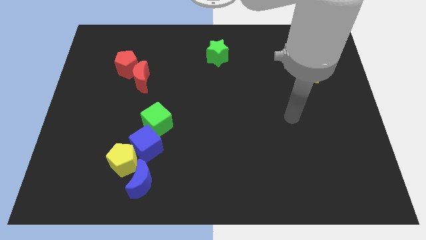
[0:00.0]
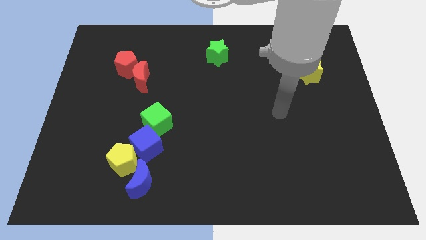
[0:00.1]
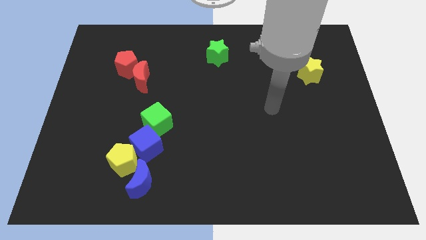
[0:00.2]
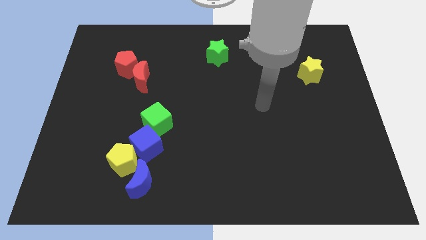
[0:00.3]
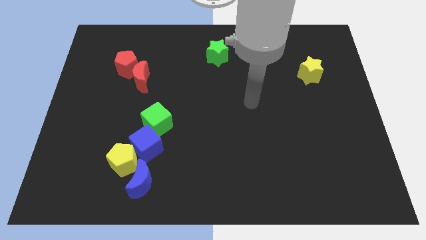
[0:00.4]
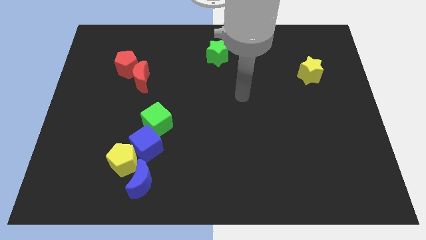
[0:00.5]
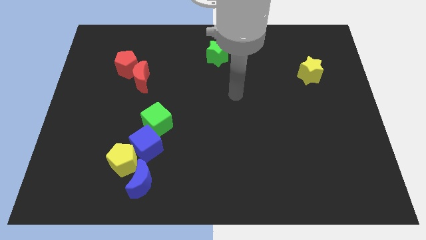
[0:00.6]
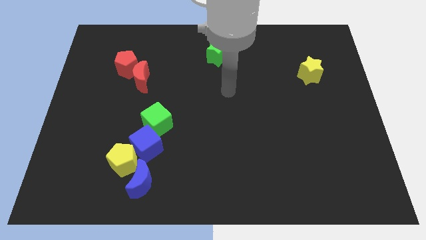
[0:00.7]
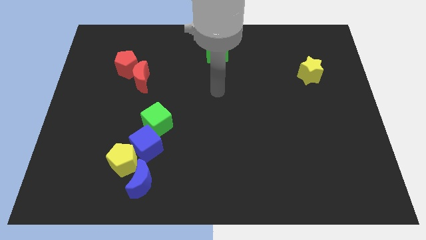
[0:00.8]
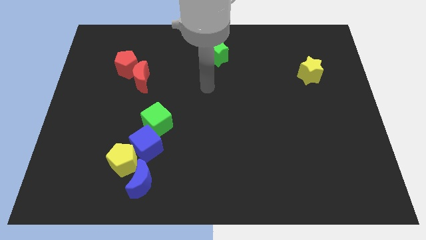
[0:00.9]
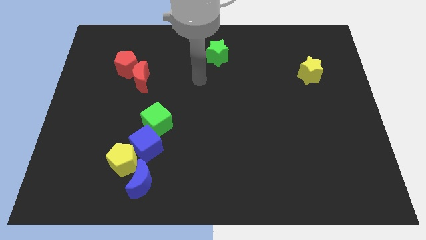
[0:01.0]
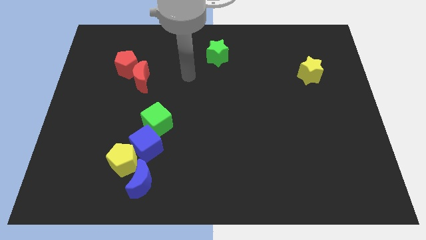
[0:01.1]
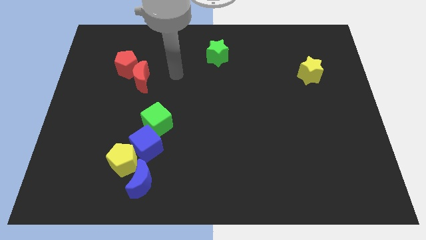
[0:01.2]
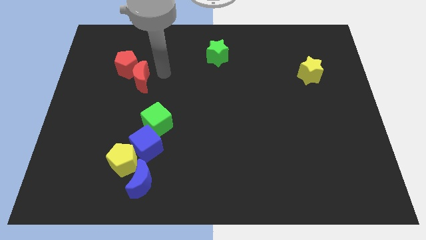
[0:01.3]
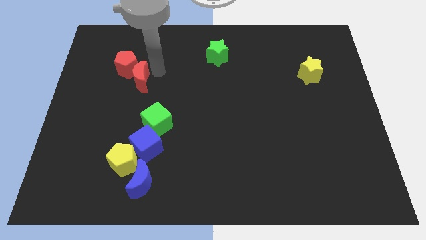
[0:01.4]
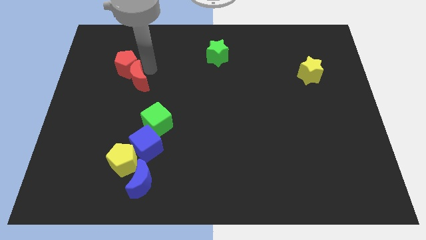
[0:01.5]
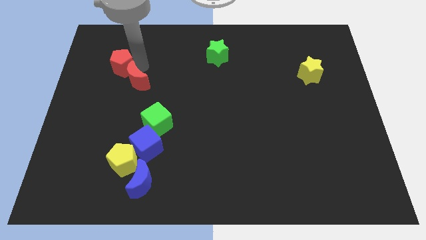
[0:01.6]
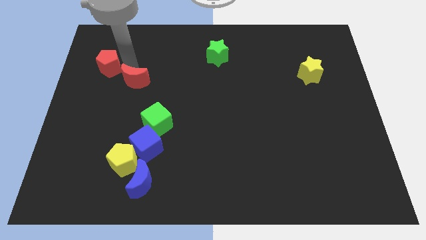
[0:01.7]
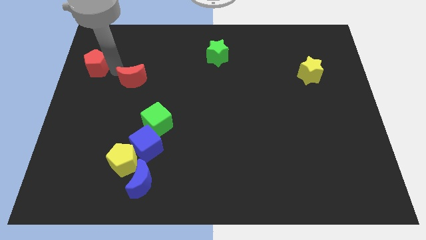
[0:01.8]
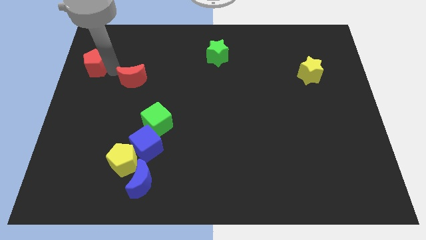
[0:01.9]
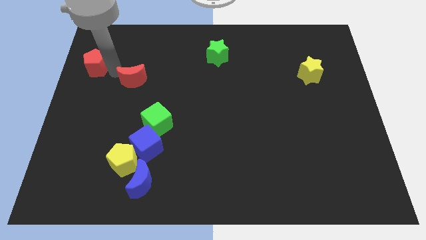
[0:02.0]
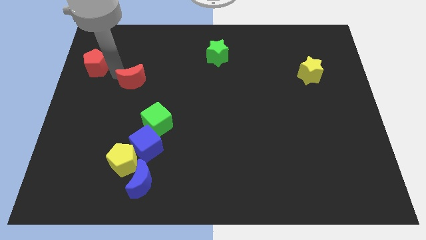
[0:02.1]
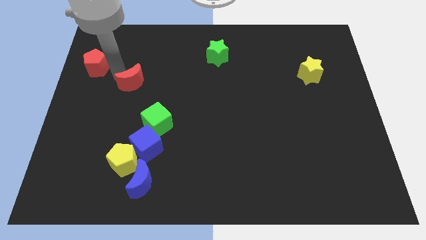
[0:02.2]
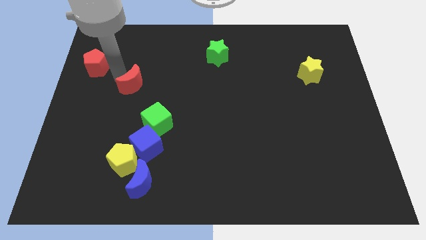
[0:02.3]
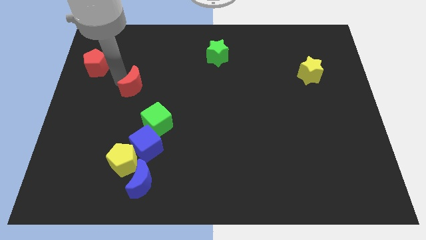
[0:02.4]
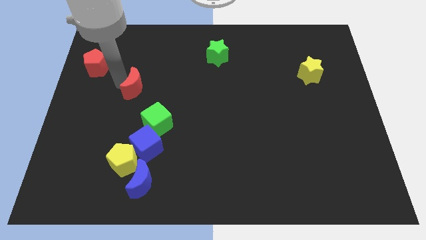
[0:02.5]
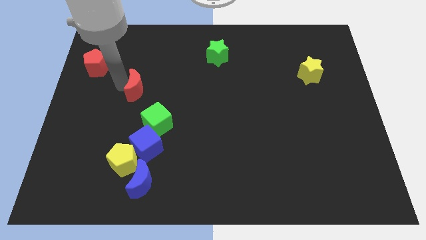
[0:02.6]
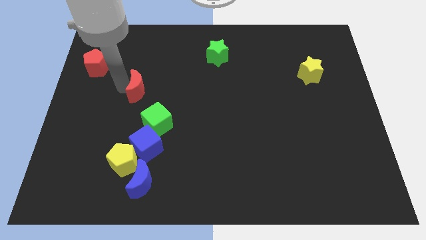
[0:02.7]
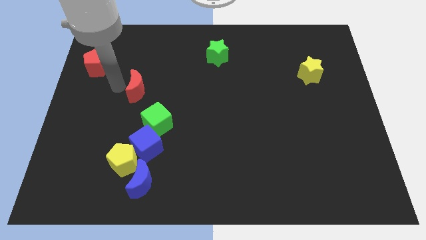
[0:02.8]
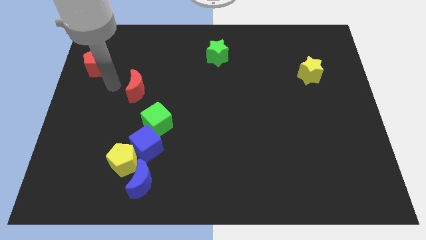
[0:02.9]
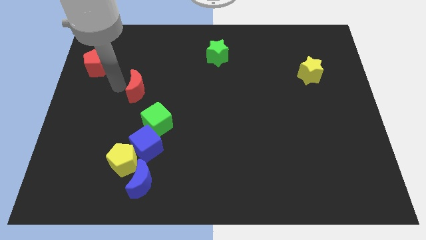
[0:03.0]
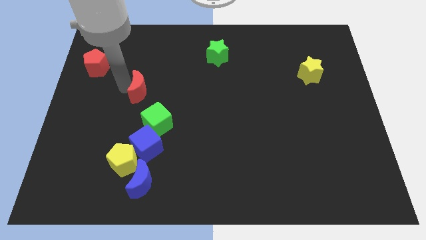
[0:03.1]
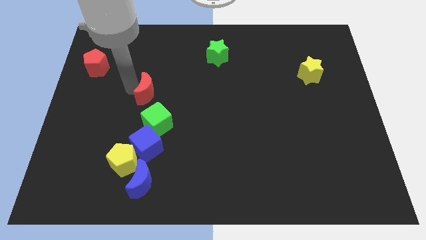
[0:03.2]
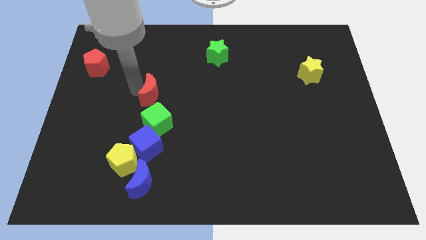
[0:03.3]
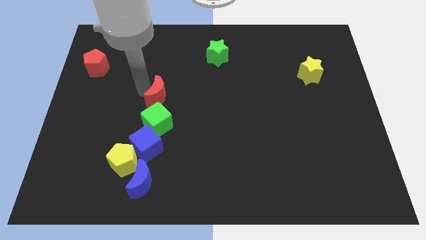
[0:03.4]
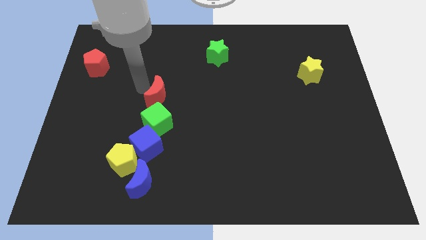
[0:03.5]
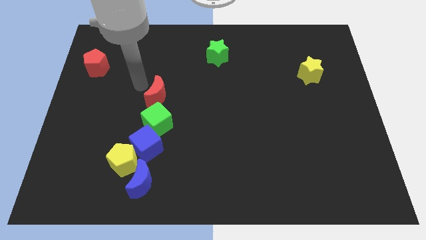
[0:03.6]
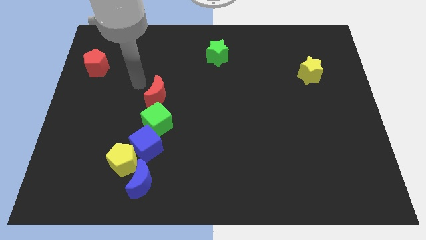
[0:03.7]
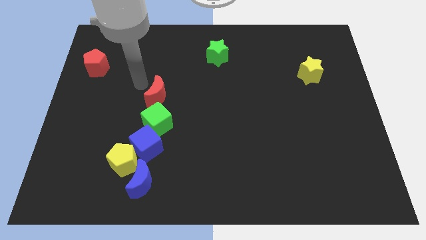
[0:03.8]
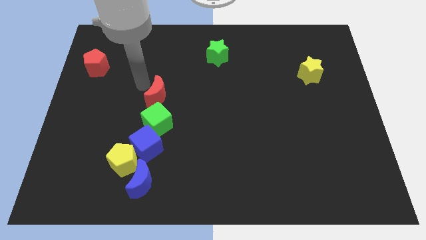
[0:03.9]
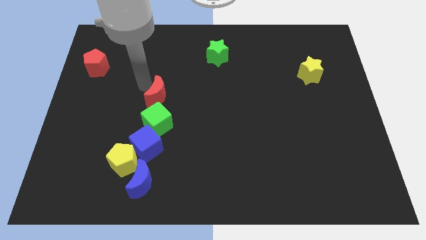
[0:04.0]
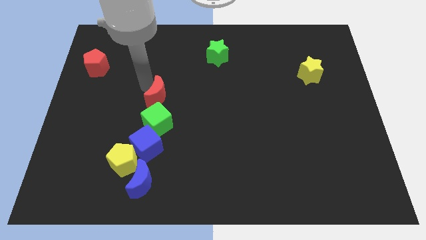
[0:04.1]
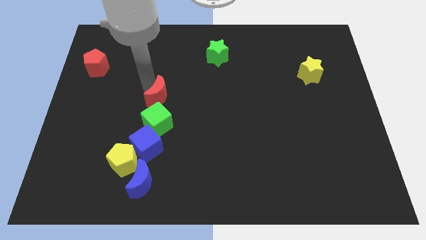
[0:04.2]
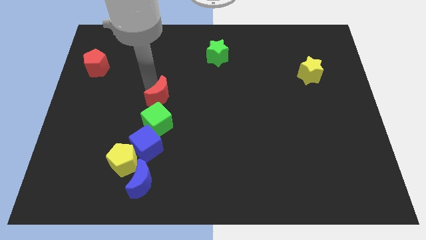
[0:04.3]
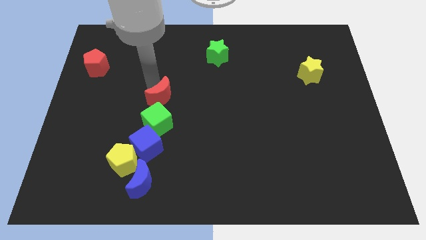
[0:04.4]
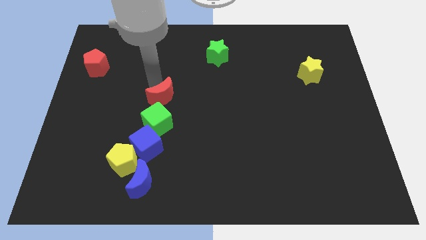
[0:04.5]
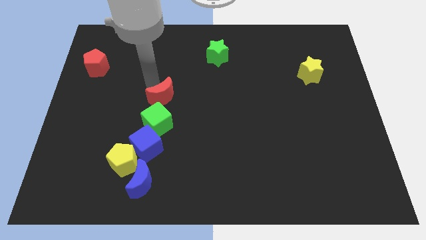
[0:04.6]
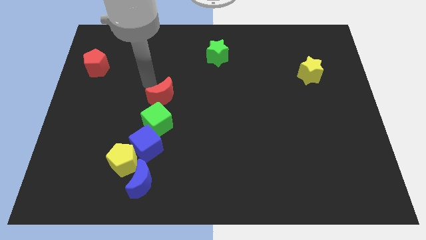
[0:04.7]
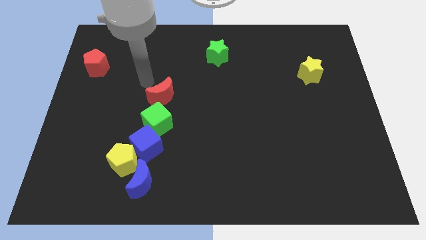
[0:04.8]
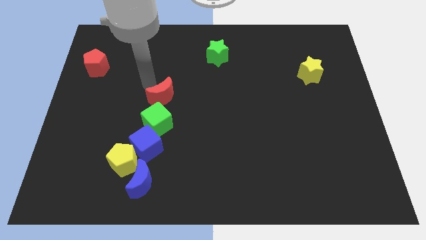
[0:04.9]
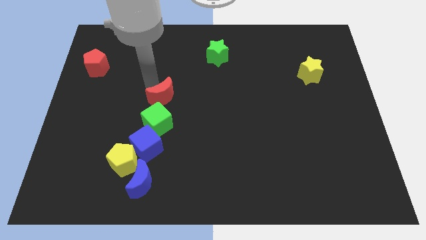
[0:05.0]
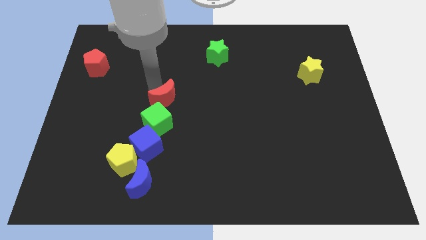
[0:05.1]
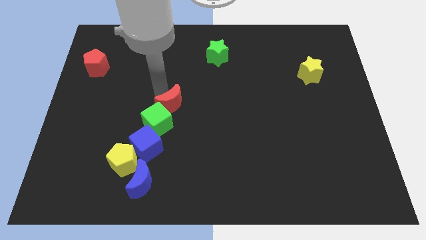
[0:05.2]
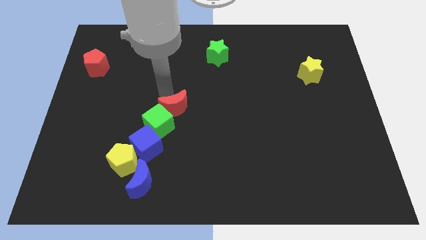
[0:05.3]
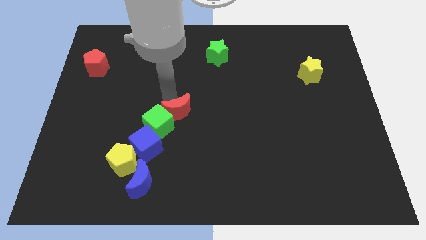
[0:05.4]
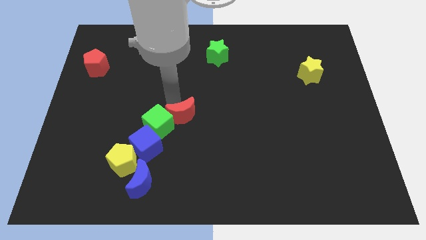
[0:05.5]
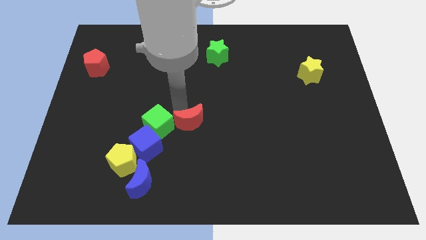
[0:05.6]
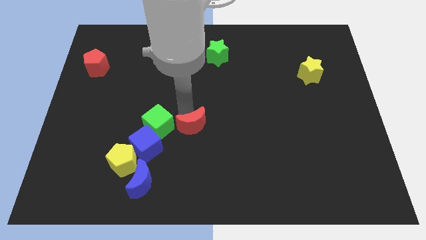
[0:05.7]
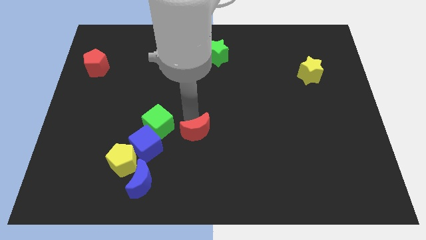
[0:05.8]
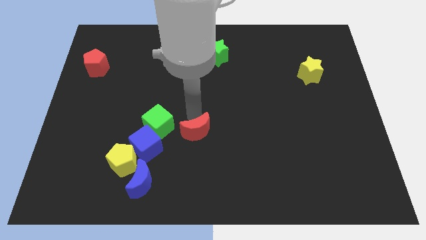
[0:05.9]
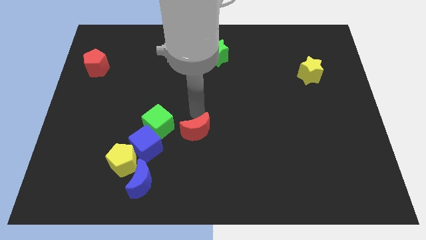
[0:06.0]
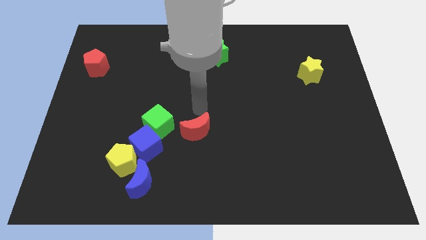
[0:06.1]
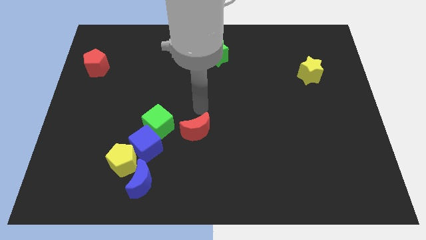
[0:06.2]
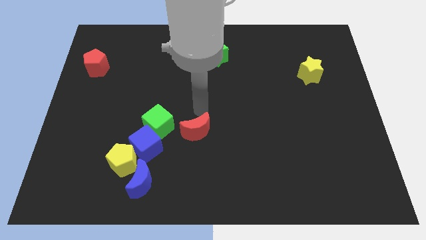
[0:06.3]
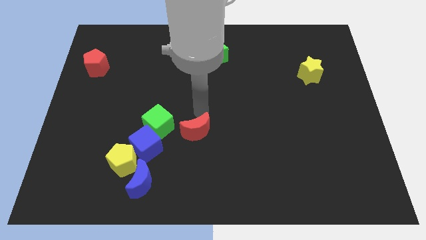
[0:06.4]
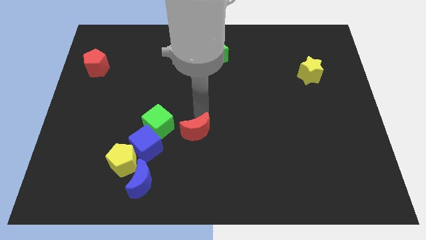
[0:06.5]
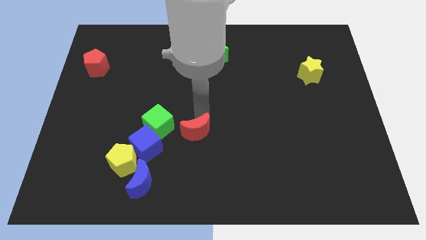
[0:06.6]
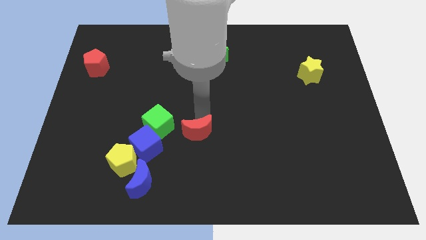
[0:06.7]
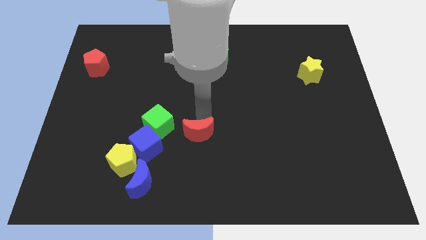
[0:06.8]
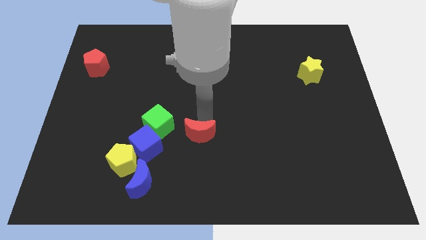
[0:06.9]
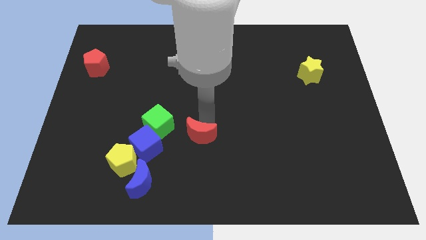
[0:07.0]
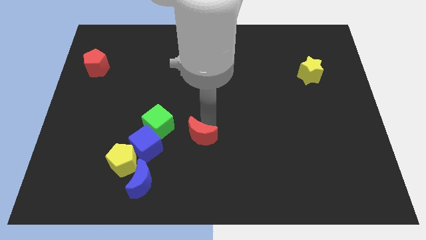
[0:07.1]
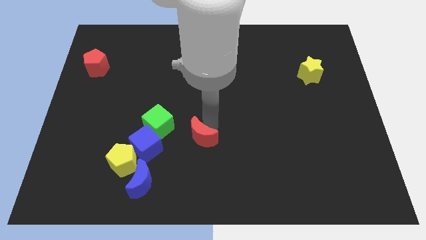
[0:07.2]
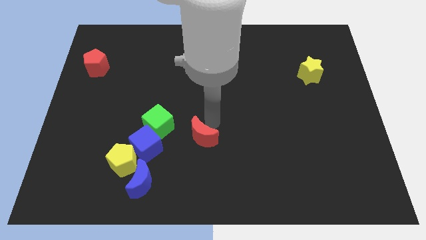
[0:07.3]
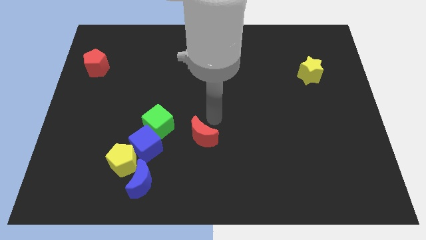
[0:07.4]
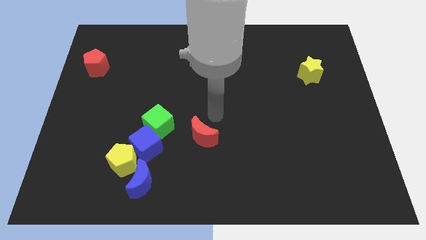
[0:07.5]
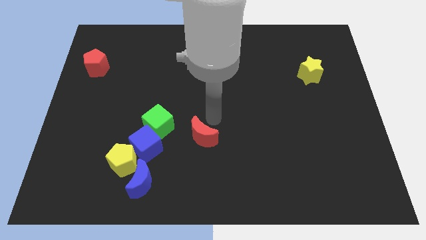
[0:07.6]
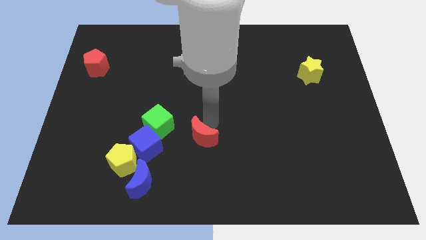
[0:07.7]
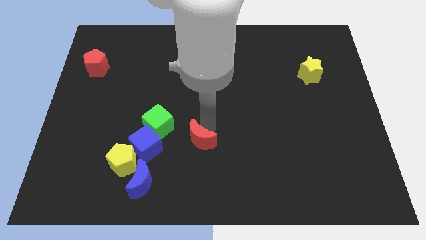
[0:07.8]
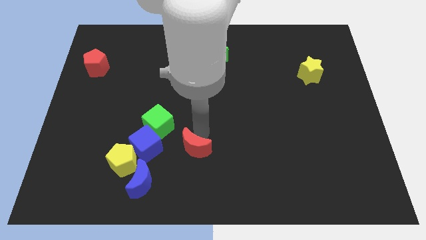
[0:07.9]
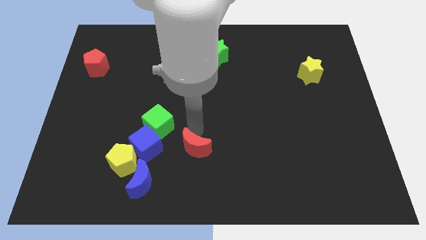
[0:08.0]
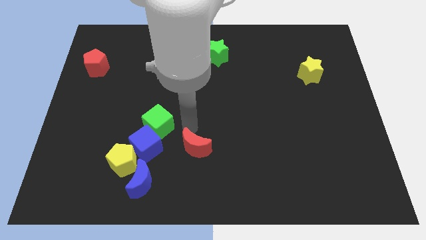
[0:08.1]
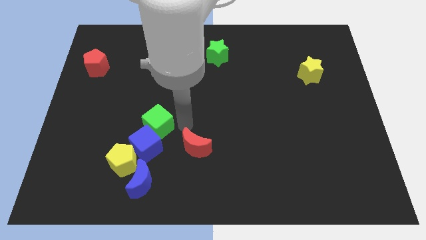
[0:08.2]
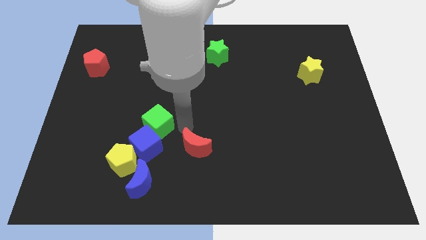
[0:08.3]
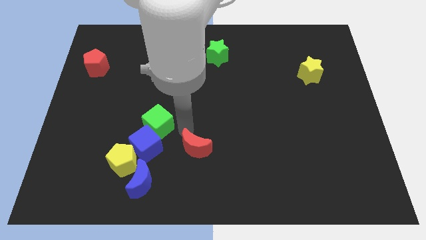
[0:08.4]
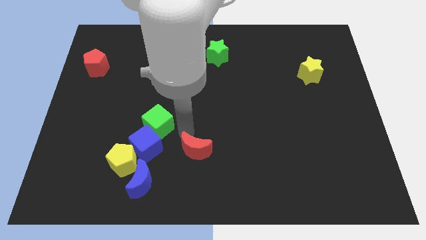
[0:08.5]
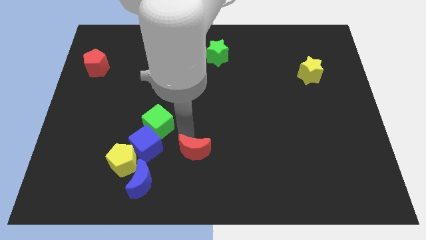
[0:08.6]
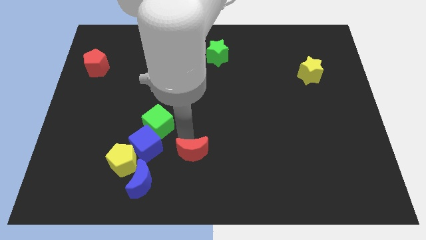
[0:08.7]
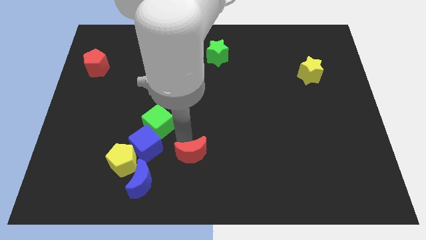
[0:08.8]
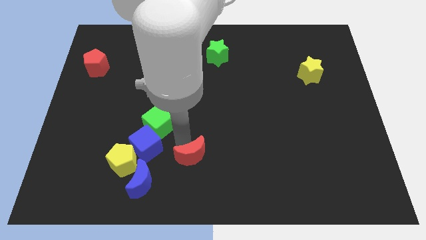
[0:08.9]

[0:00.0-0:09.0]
move the red moon to the bottom
